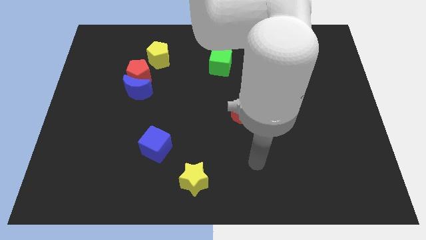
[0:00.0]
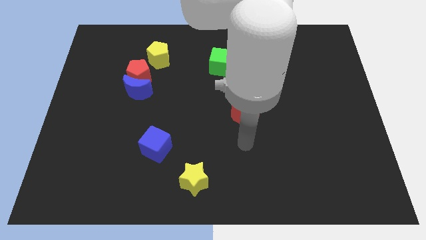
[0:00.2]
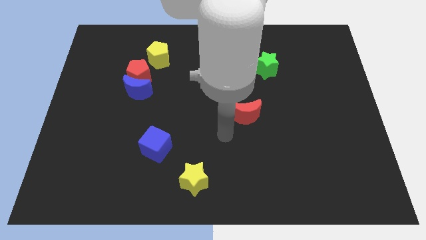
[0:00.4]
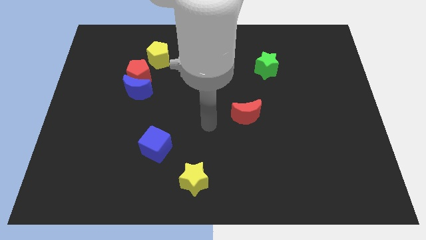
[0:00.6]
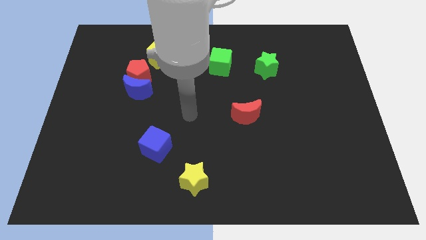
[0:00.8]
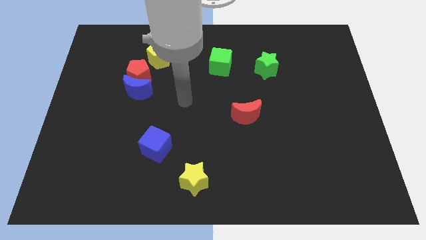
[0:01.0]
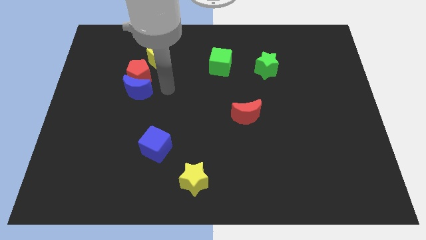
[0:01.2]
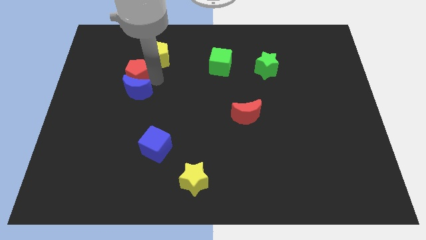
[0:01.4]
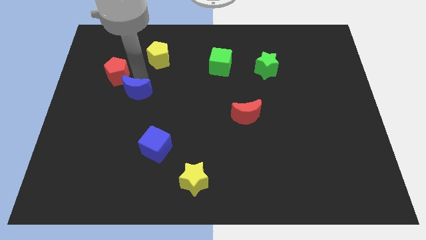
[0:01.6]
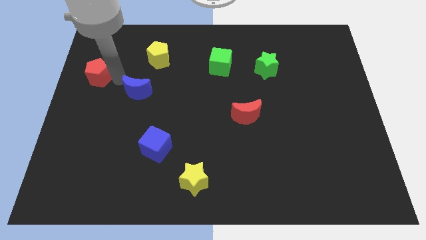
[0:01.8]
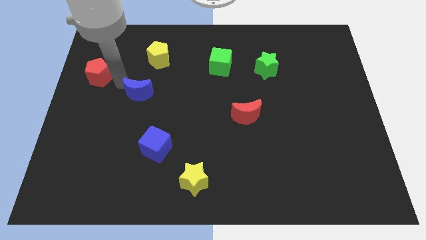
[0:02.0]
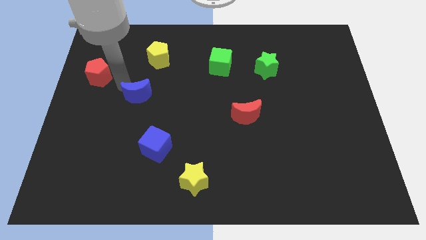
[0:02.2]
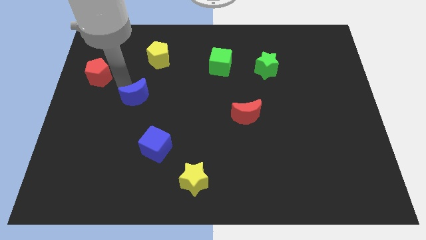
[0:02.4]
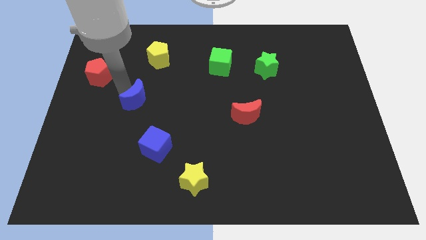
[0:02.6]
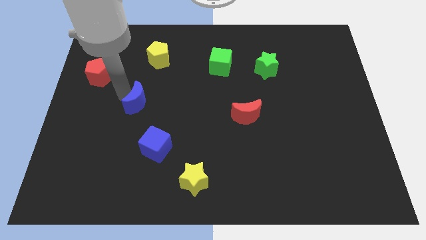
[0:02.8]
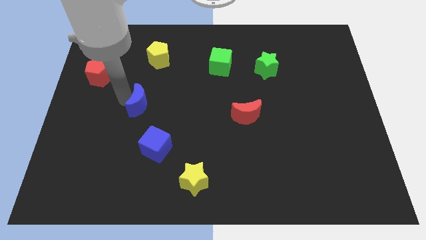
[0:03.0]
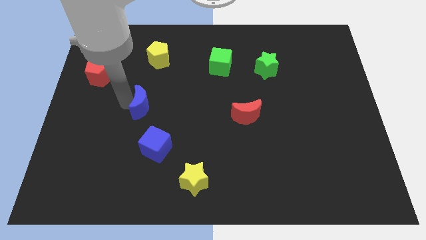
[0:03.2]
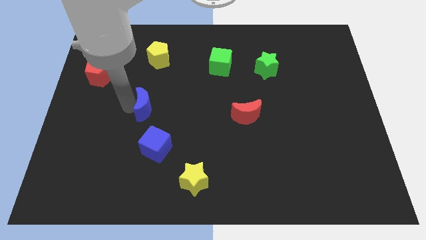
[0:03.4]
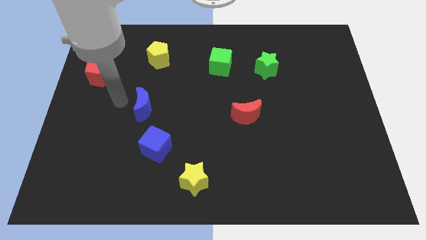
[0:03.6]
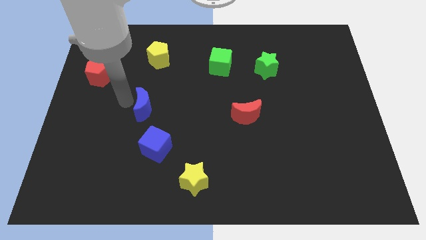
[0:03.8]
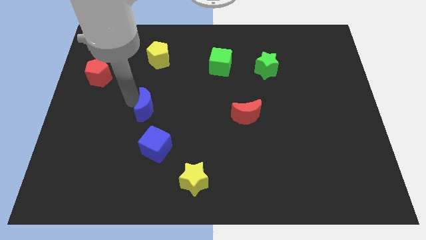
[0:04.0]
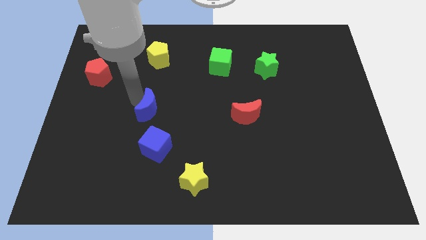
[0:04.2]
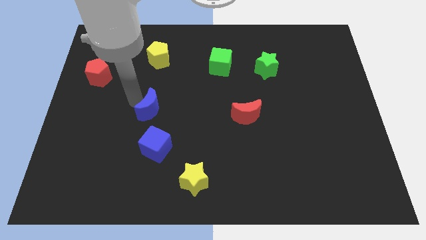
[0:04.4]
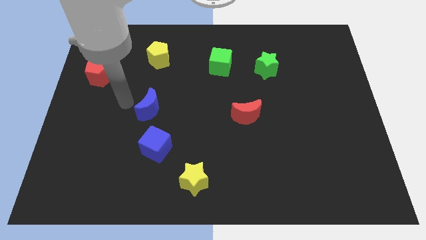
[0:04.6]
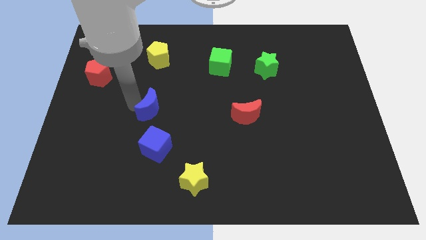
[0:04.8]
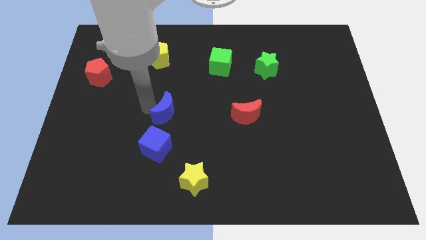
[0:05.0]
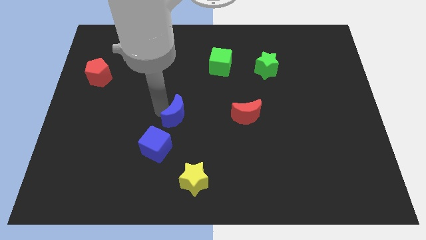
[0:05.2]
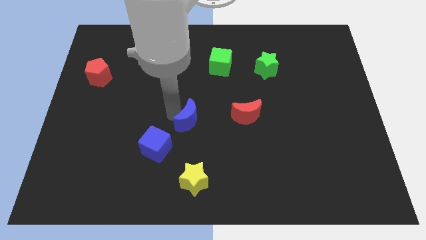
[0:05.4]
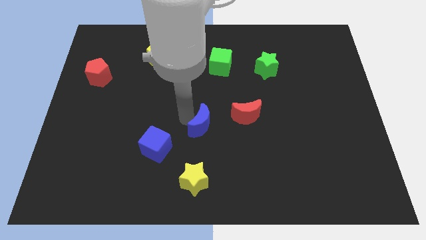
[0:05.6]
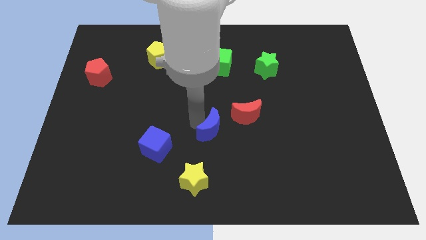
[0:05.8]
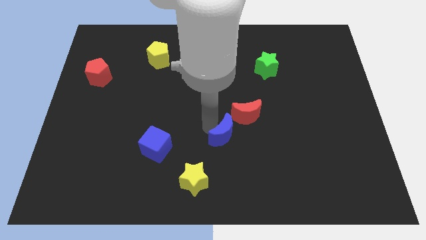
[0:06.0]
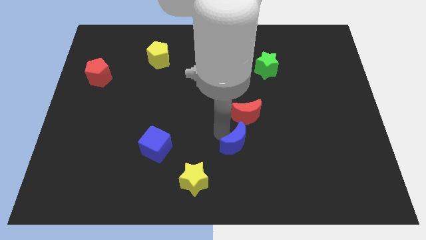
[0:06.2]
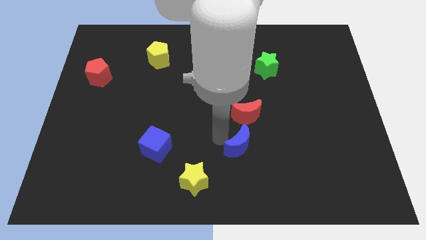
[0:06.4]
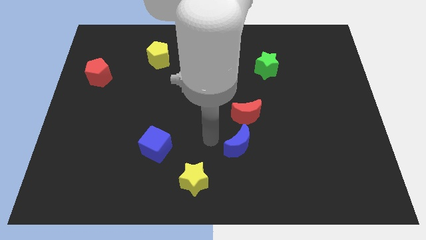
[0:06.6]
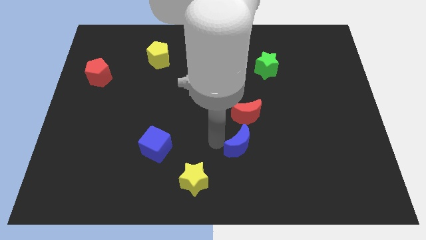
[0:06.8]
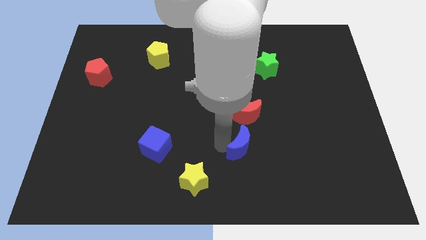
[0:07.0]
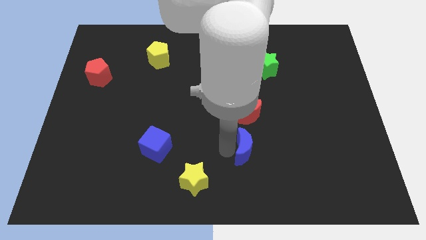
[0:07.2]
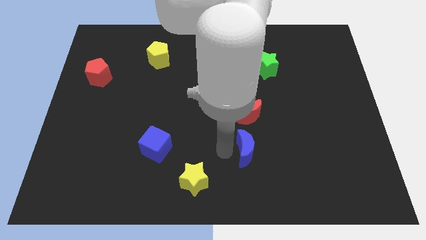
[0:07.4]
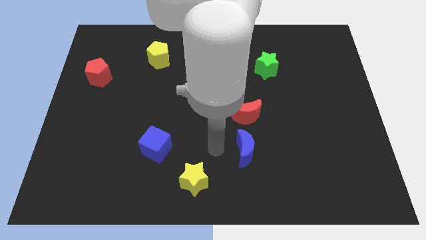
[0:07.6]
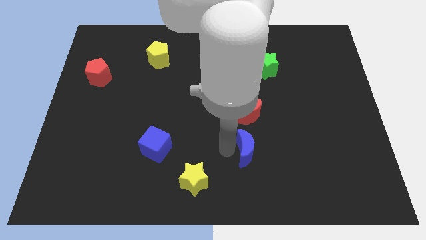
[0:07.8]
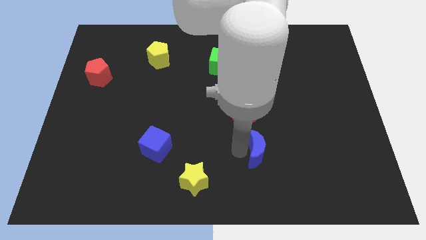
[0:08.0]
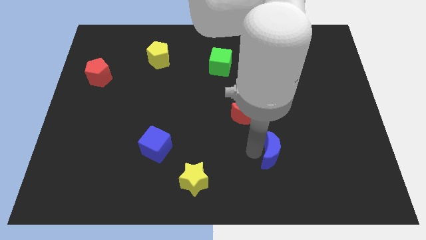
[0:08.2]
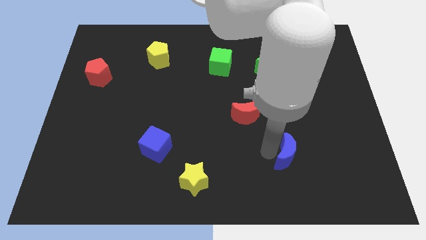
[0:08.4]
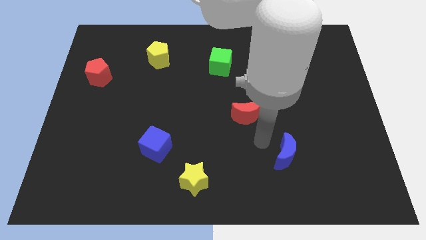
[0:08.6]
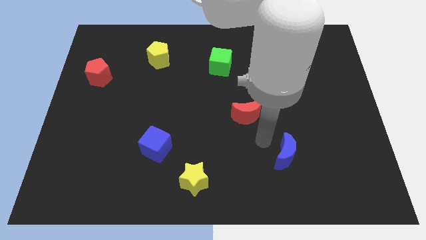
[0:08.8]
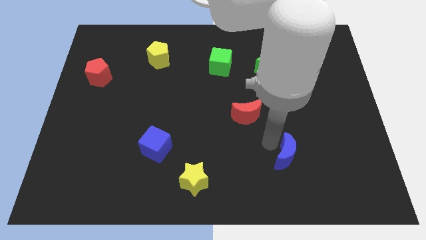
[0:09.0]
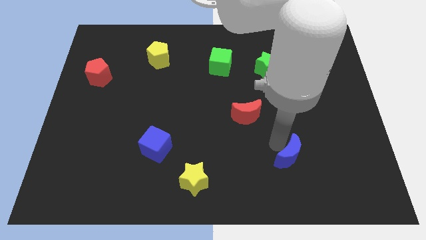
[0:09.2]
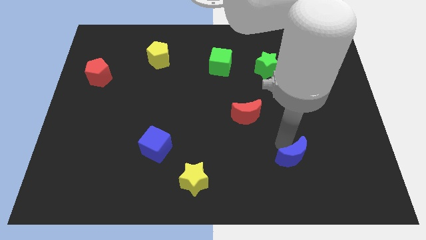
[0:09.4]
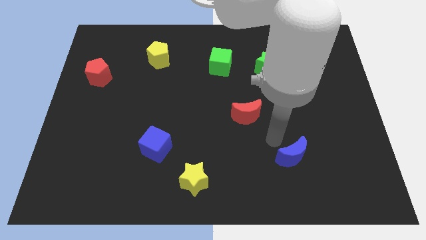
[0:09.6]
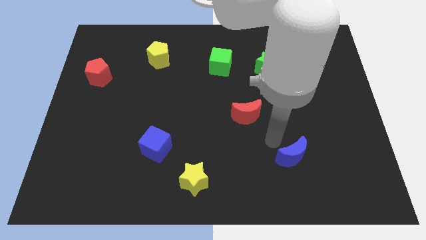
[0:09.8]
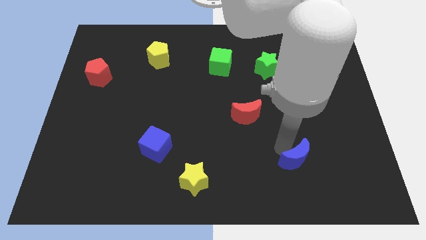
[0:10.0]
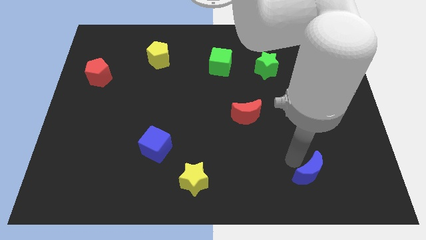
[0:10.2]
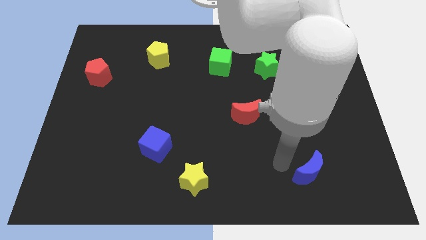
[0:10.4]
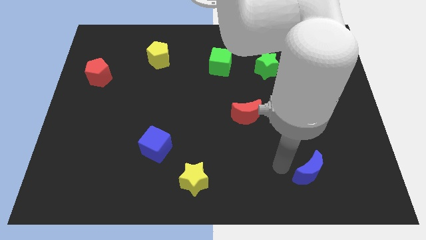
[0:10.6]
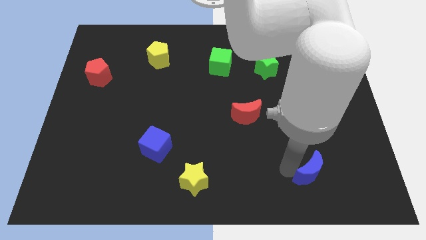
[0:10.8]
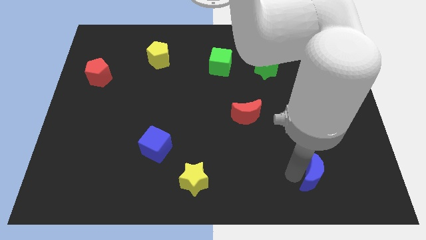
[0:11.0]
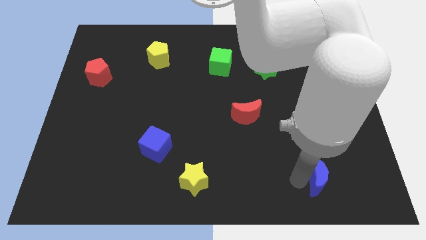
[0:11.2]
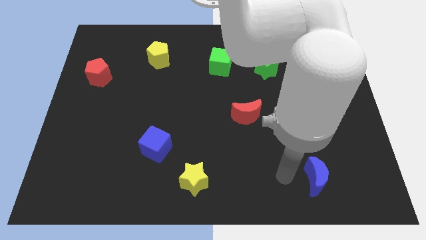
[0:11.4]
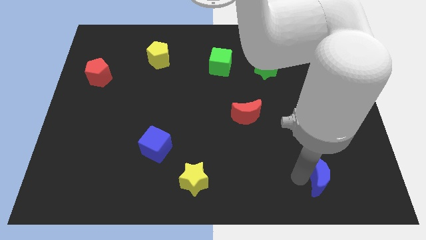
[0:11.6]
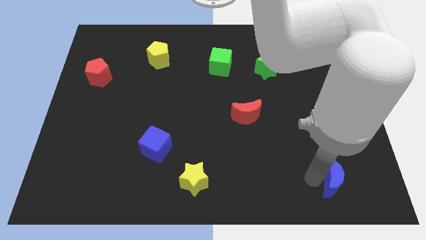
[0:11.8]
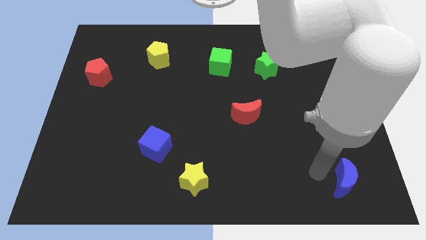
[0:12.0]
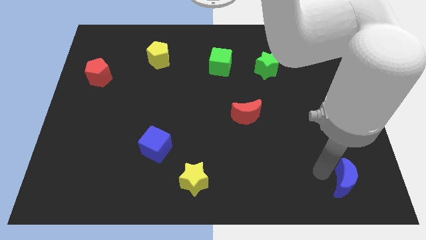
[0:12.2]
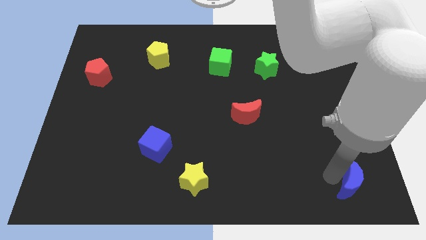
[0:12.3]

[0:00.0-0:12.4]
move the blue moon to the bottom right

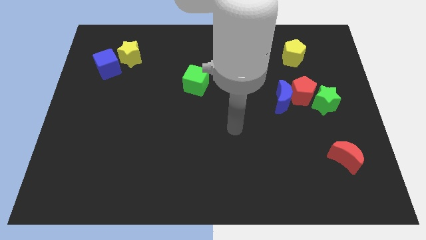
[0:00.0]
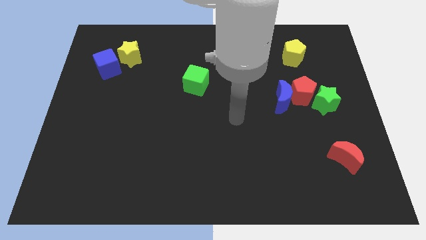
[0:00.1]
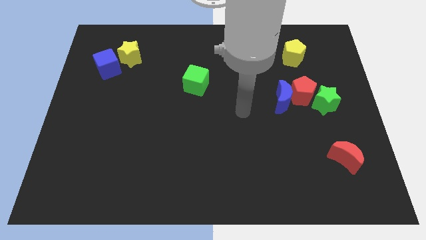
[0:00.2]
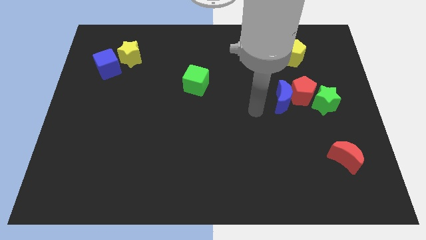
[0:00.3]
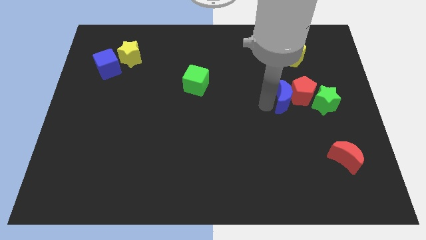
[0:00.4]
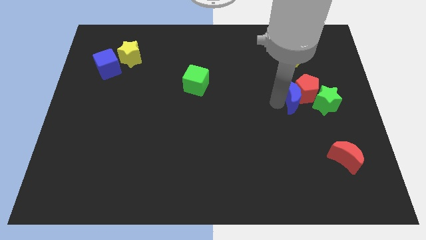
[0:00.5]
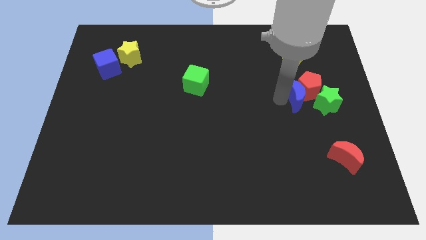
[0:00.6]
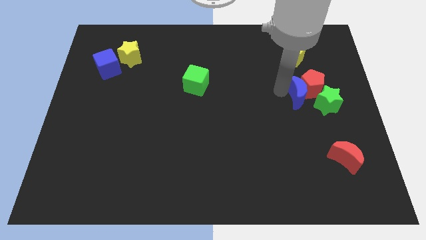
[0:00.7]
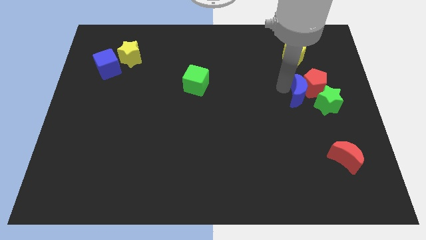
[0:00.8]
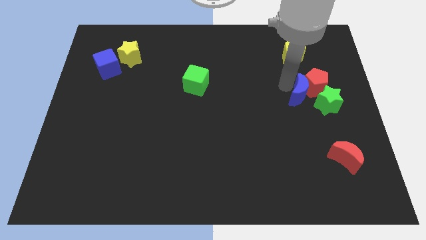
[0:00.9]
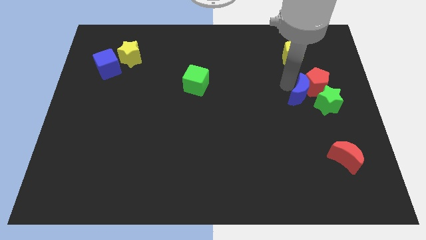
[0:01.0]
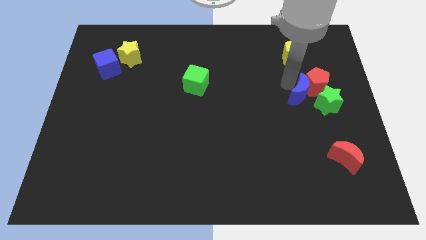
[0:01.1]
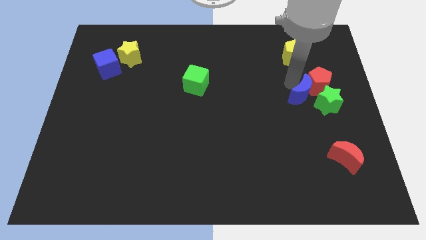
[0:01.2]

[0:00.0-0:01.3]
slide the red pentagon to the right side of the board
